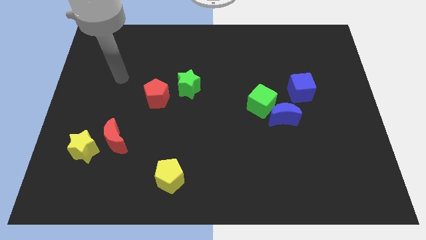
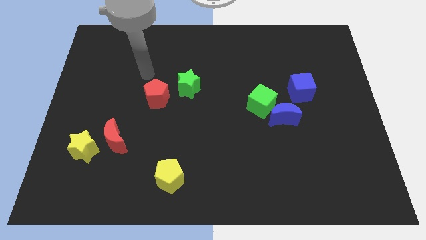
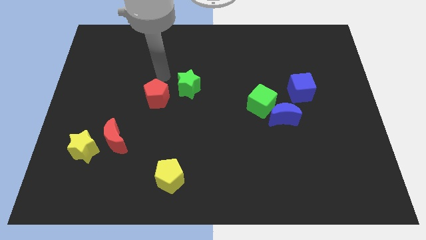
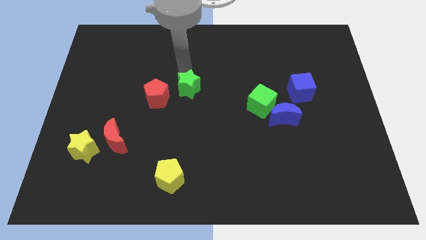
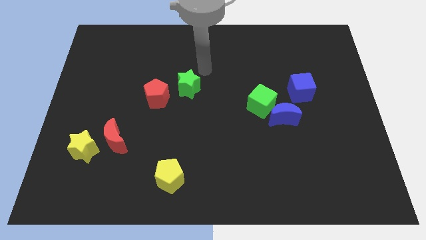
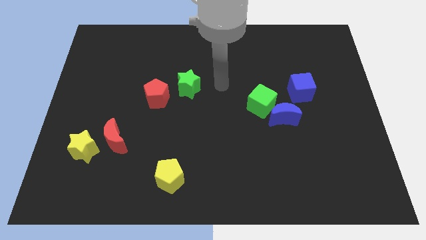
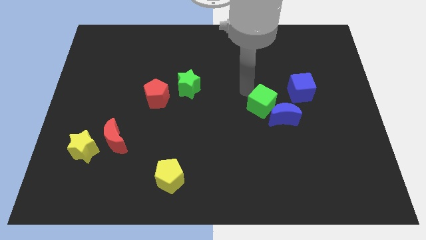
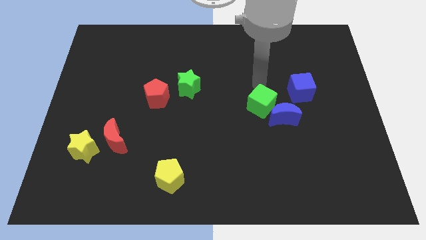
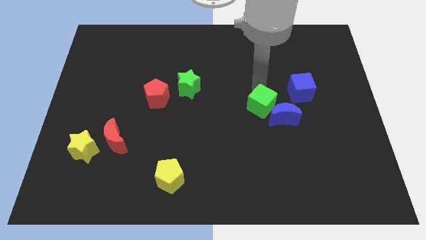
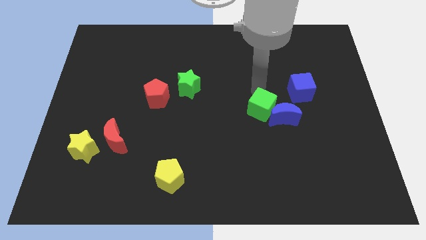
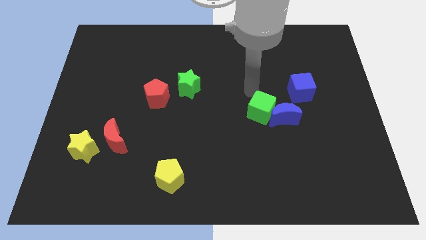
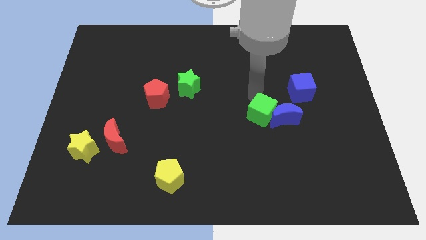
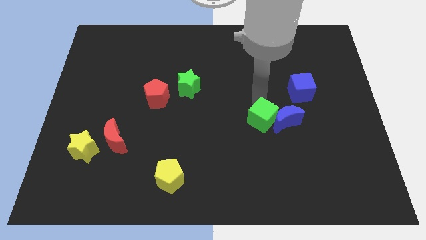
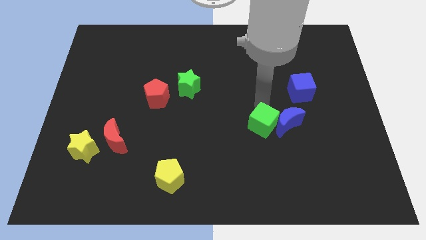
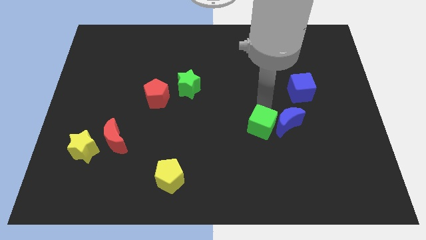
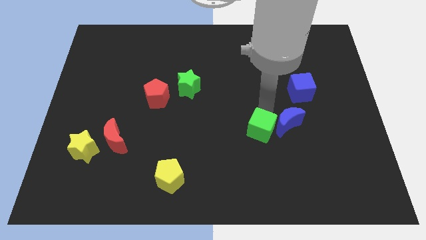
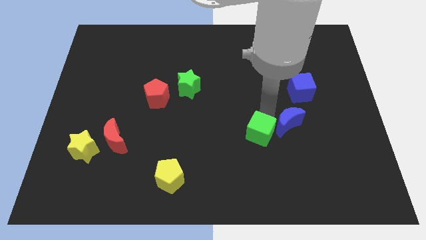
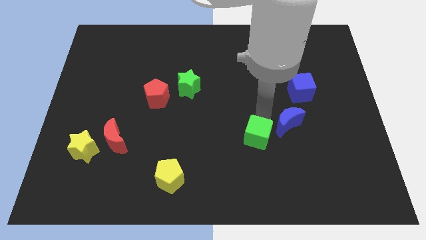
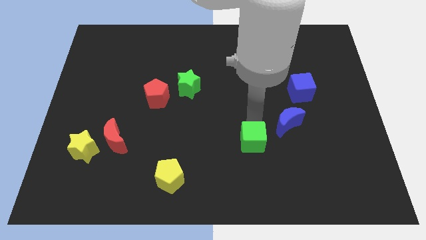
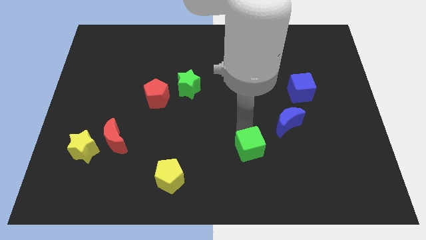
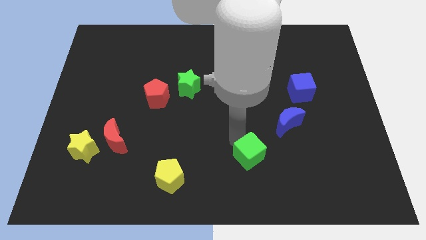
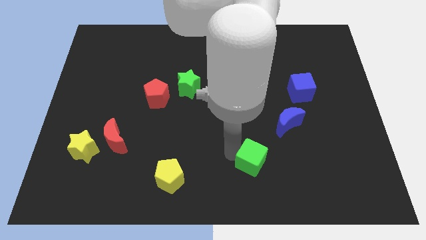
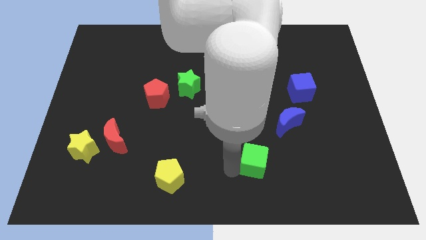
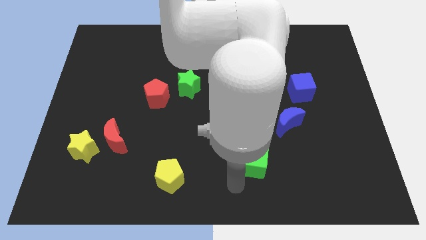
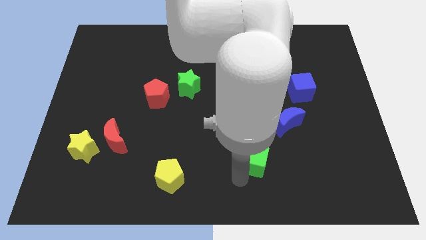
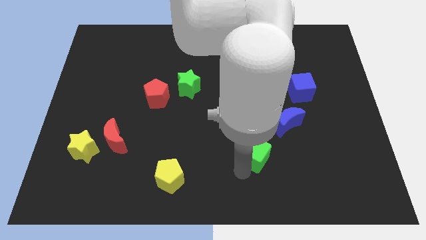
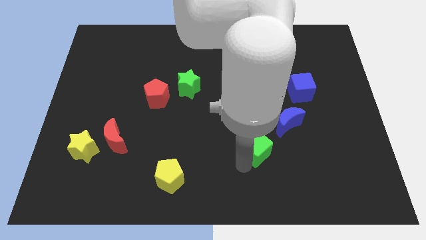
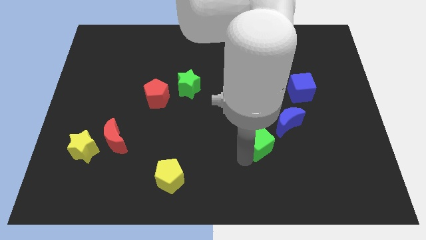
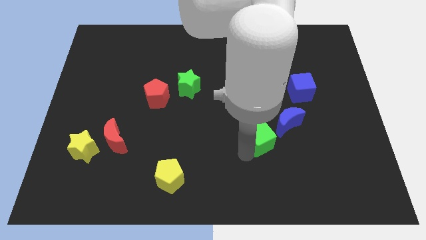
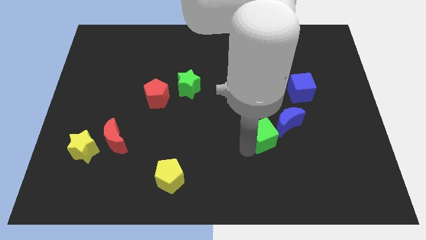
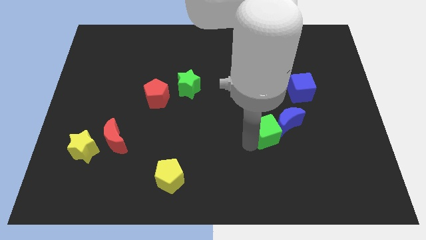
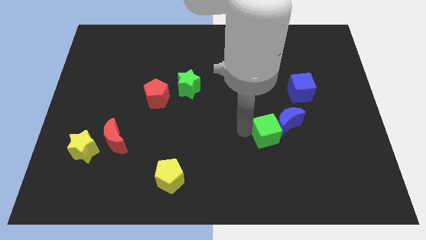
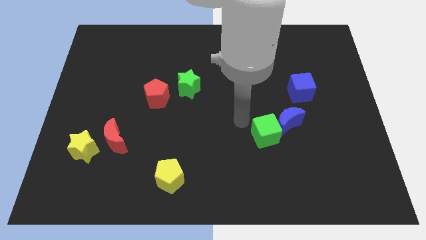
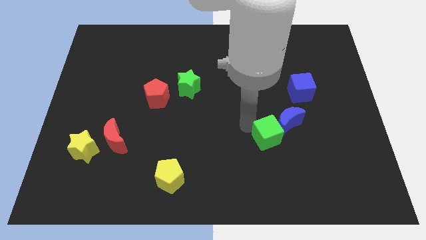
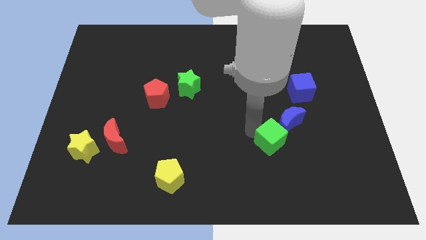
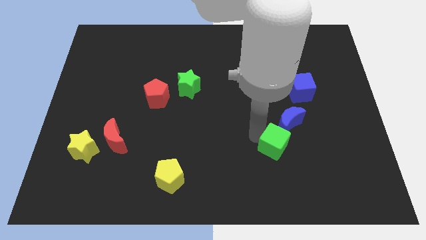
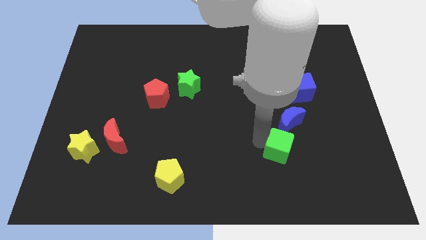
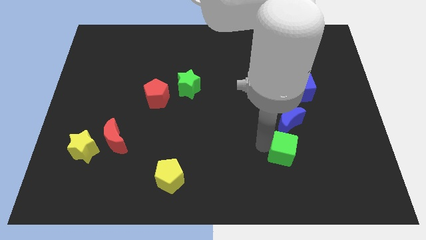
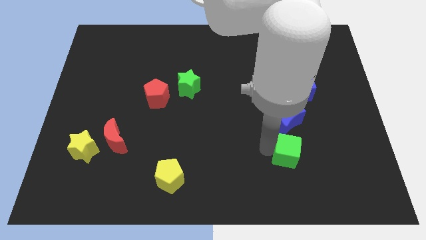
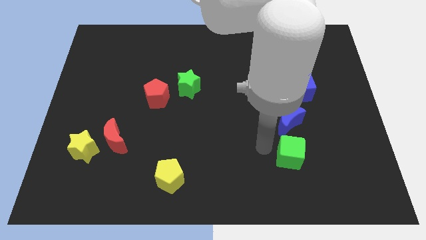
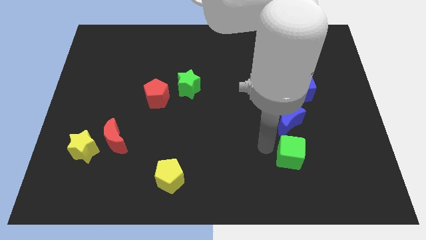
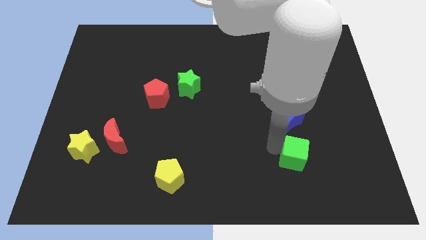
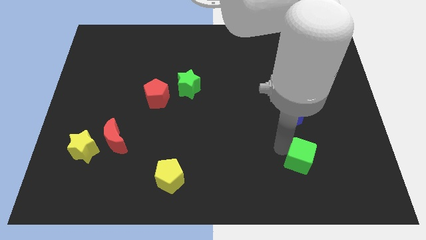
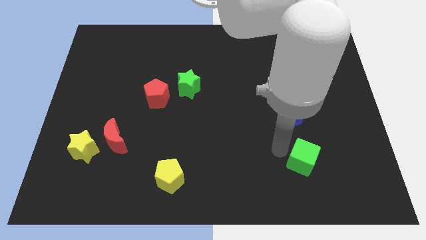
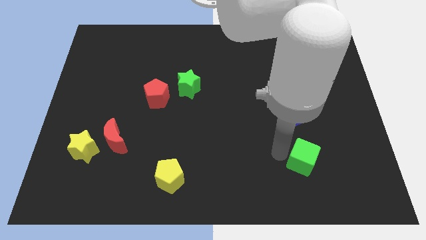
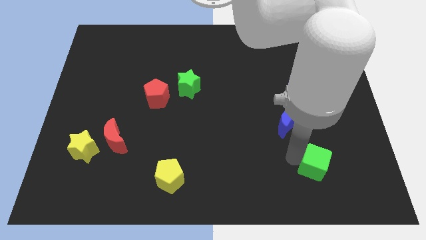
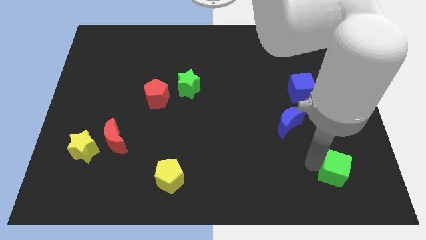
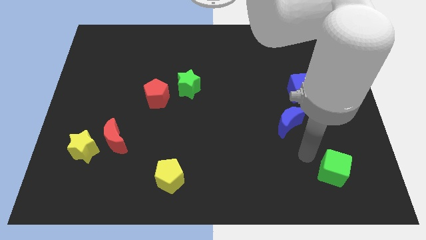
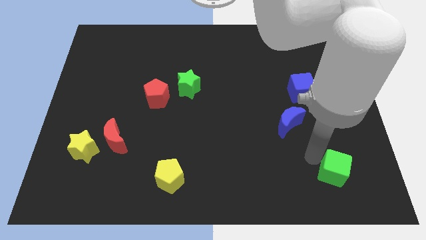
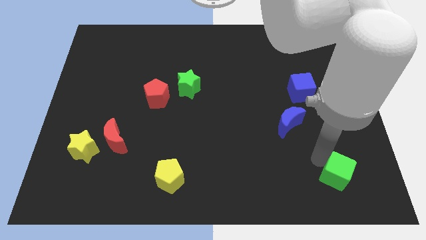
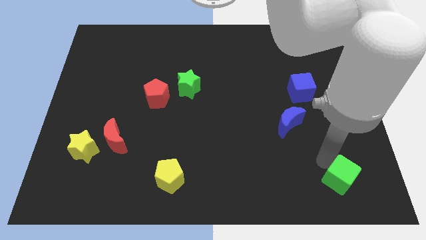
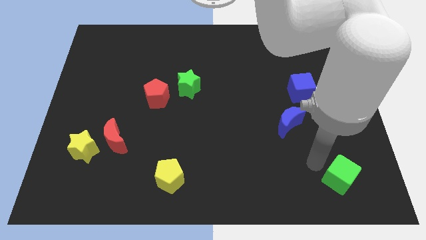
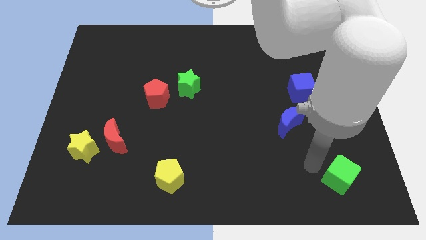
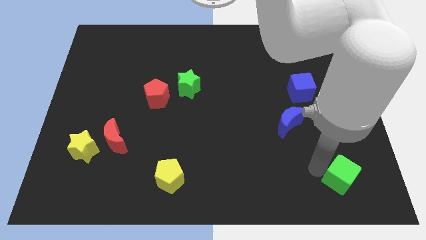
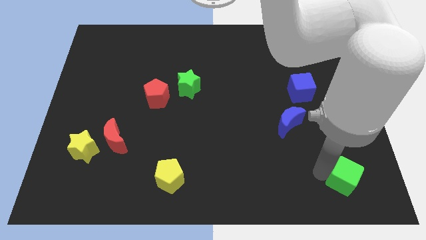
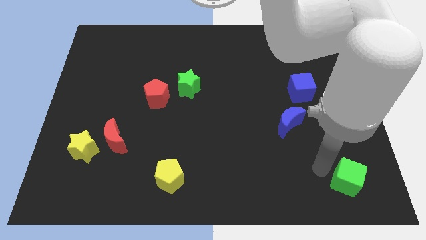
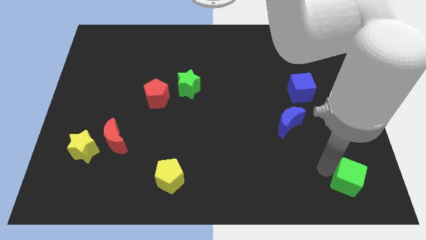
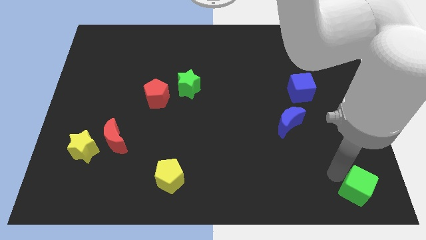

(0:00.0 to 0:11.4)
push the green cube to the bottom right

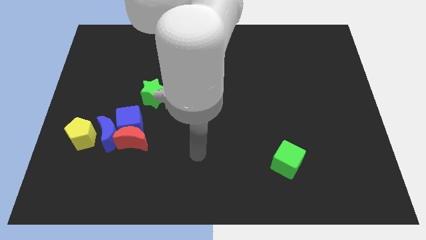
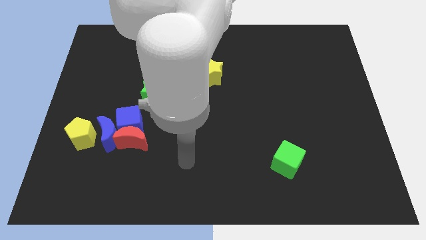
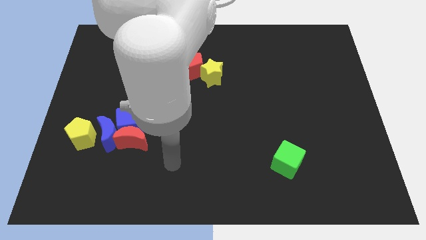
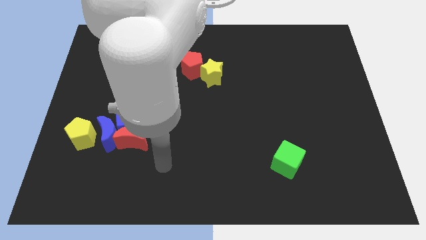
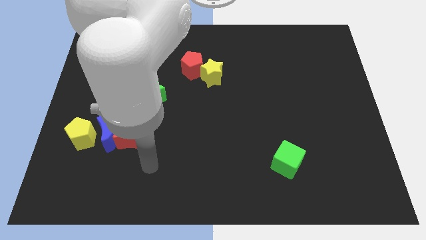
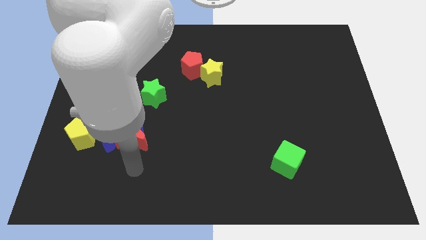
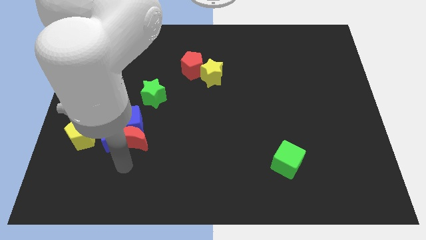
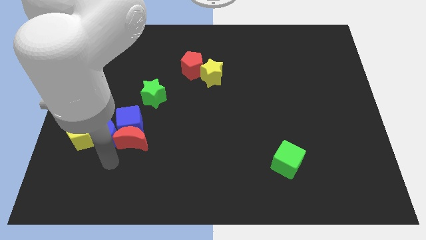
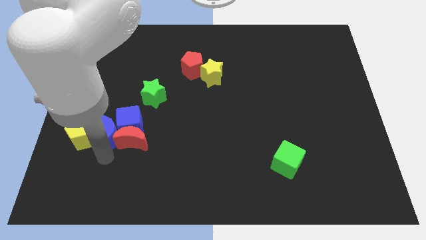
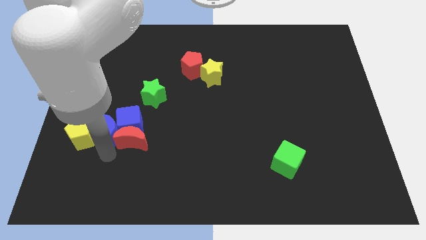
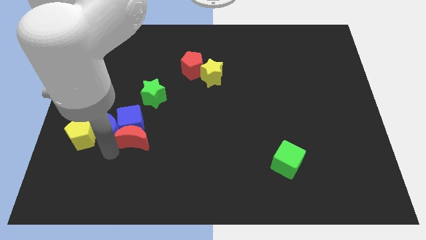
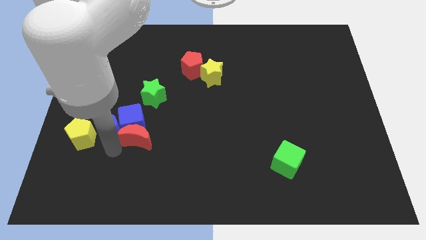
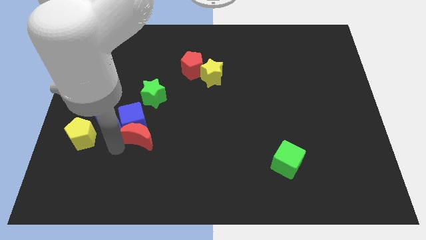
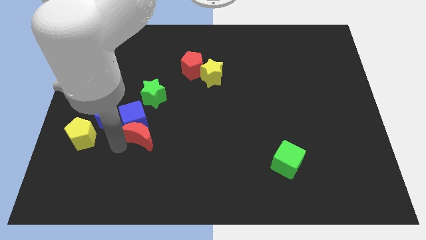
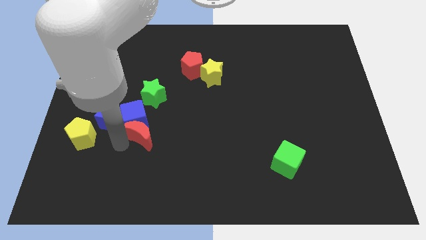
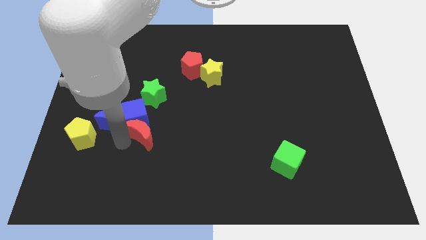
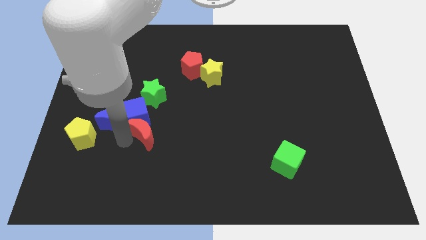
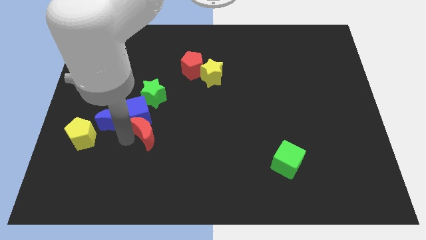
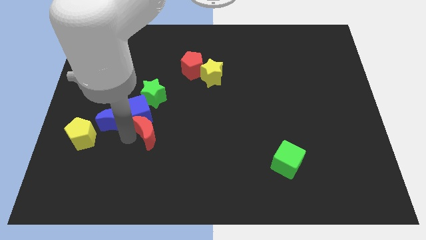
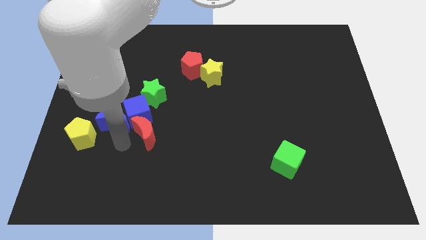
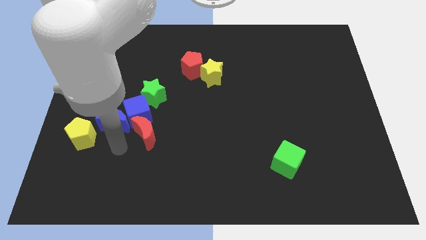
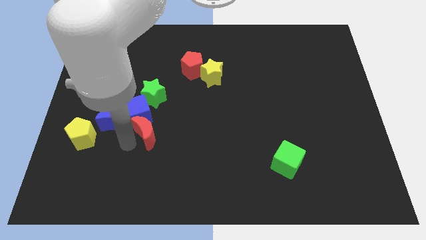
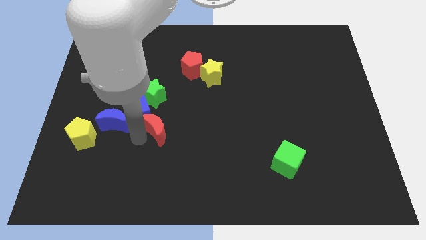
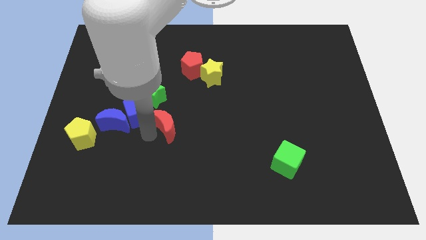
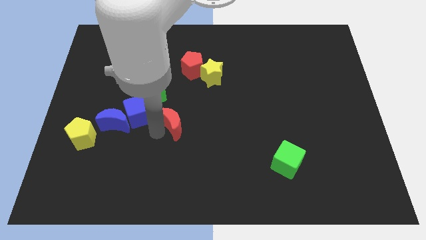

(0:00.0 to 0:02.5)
push the red moon to the middle of the board
